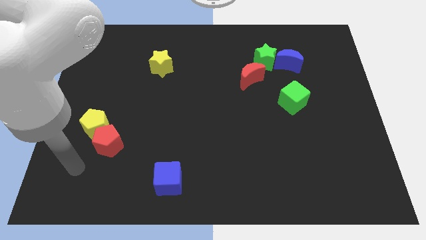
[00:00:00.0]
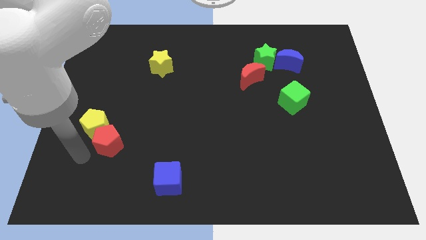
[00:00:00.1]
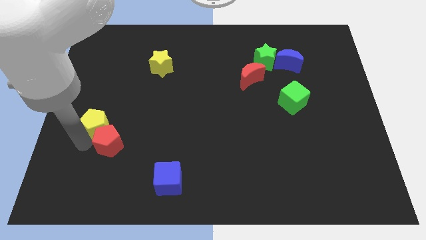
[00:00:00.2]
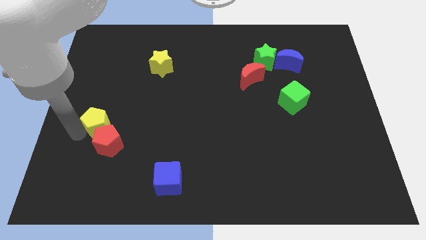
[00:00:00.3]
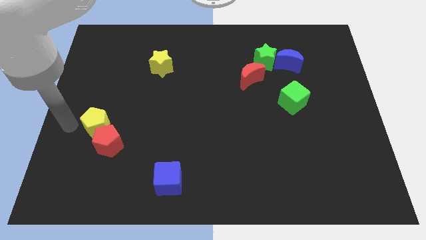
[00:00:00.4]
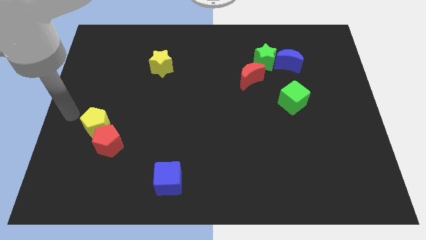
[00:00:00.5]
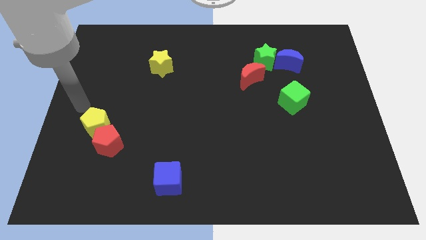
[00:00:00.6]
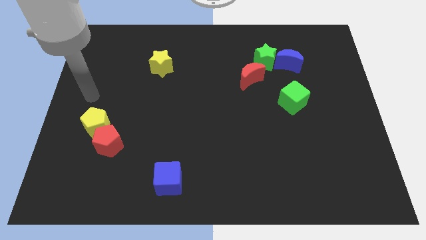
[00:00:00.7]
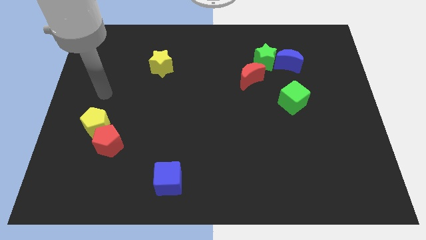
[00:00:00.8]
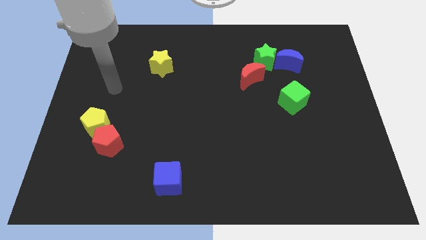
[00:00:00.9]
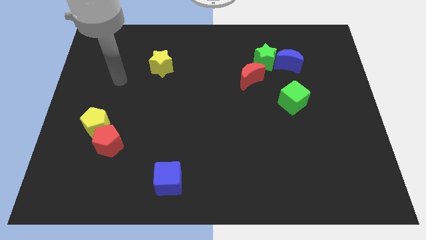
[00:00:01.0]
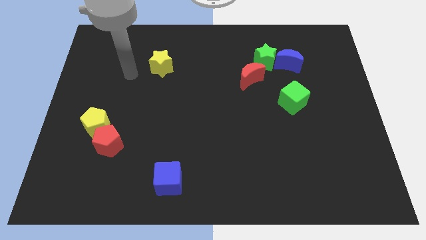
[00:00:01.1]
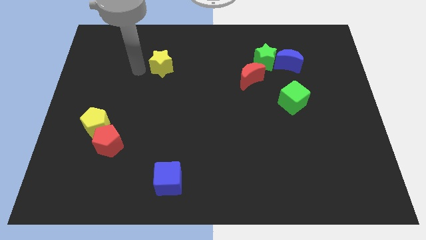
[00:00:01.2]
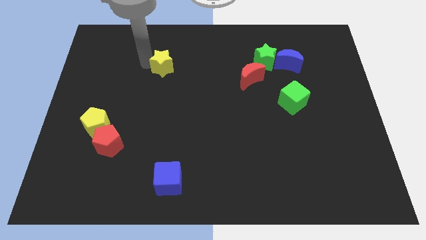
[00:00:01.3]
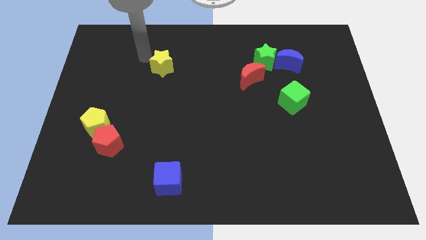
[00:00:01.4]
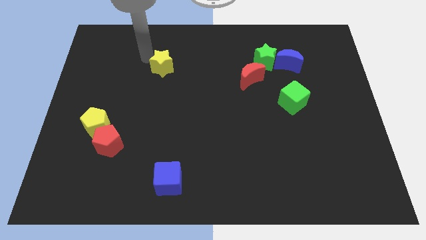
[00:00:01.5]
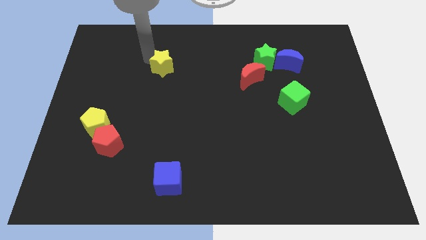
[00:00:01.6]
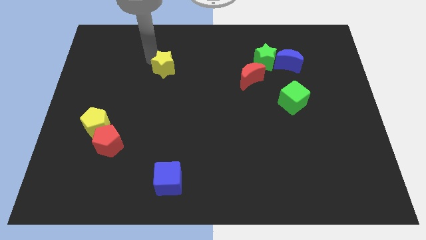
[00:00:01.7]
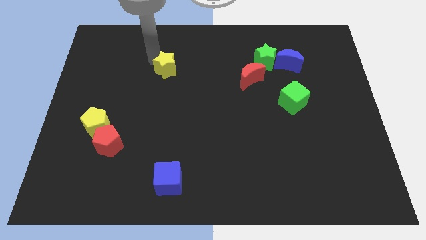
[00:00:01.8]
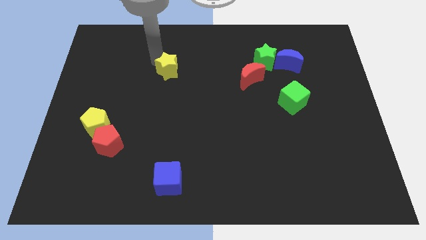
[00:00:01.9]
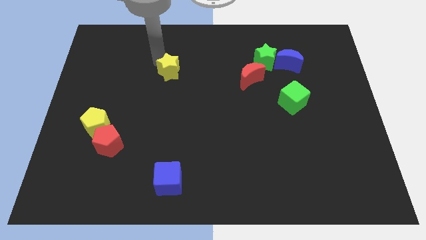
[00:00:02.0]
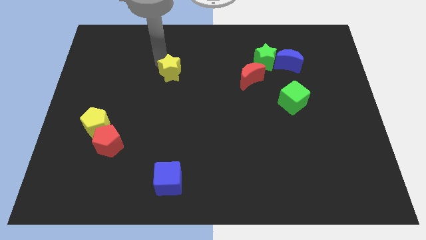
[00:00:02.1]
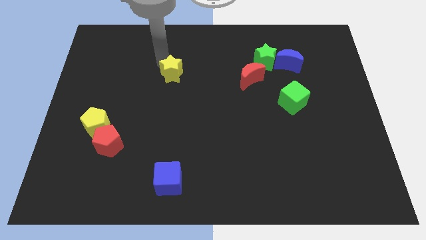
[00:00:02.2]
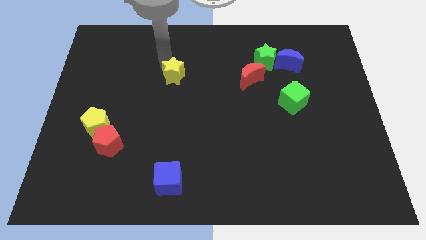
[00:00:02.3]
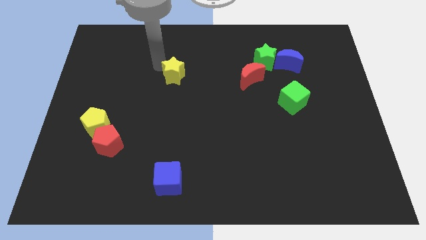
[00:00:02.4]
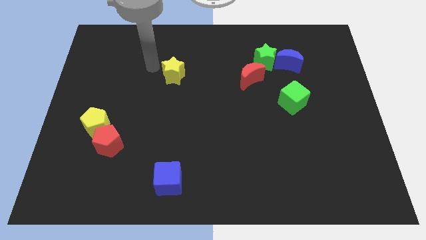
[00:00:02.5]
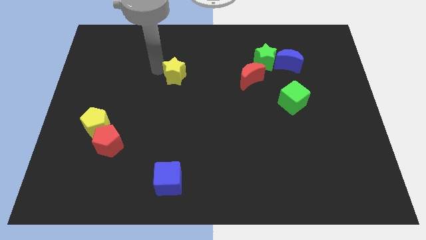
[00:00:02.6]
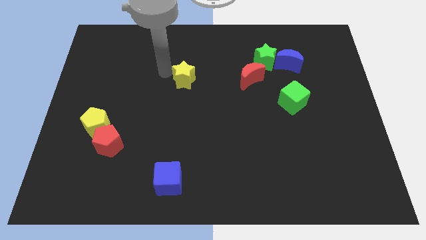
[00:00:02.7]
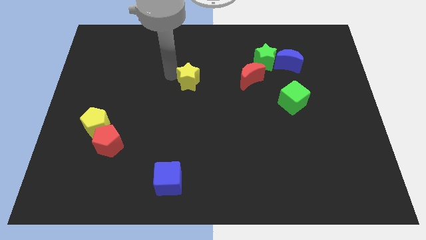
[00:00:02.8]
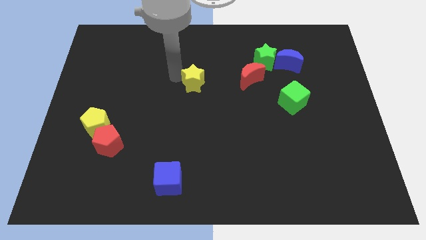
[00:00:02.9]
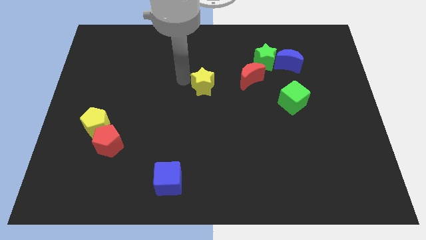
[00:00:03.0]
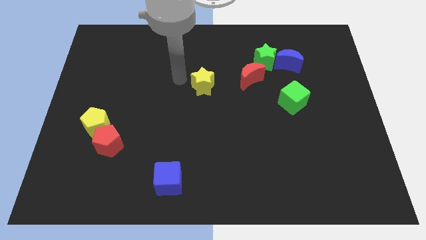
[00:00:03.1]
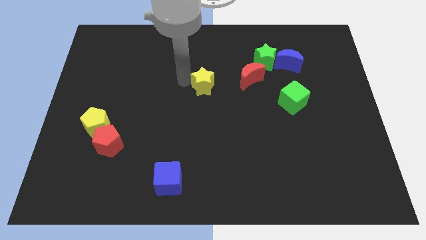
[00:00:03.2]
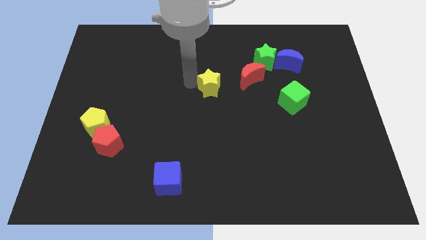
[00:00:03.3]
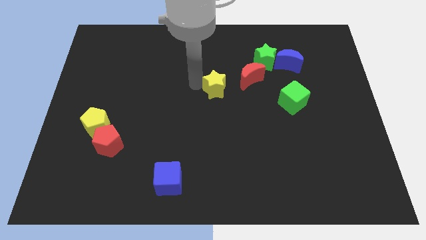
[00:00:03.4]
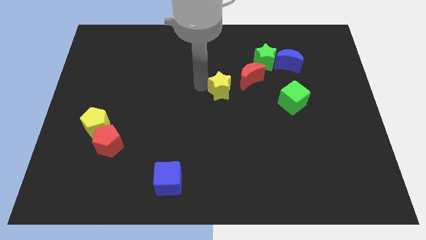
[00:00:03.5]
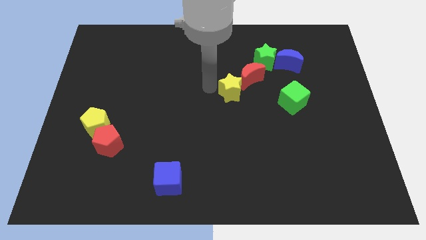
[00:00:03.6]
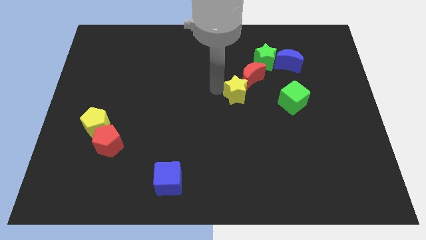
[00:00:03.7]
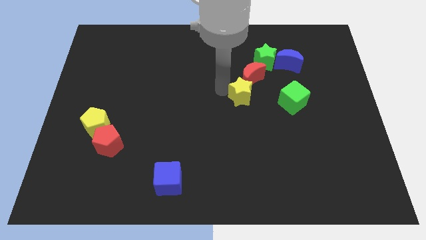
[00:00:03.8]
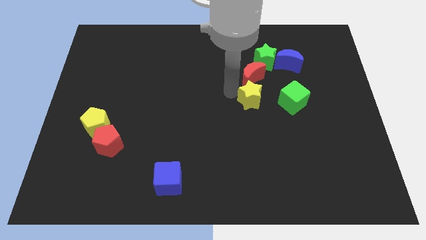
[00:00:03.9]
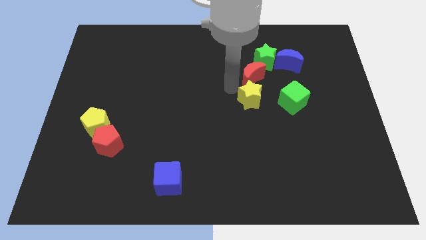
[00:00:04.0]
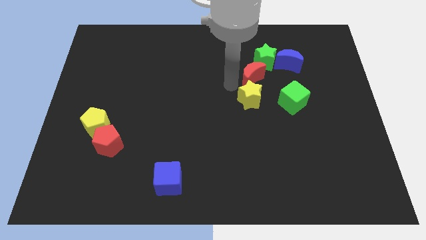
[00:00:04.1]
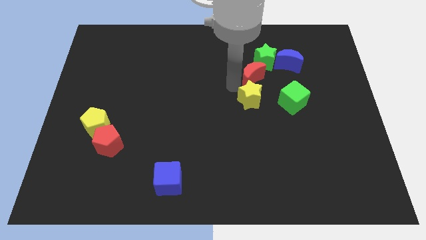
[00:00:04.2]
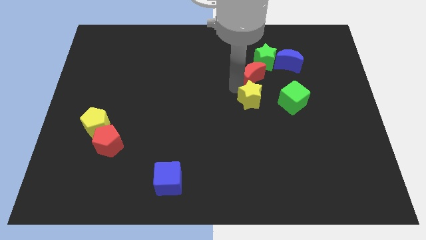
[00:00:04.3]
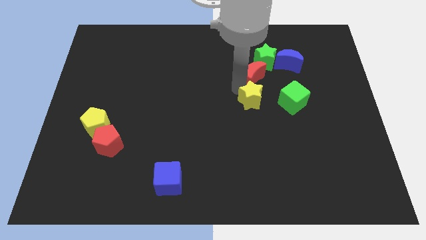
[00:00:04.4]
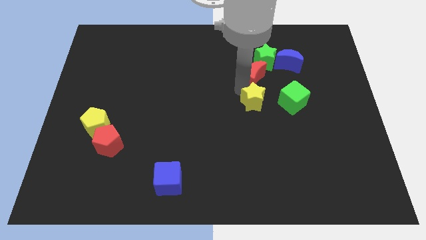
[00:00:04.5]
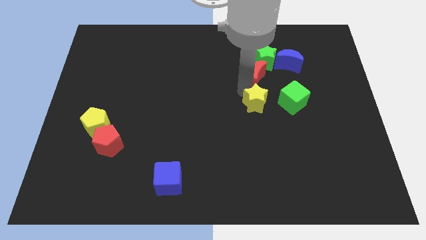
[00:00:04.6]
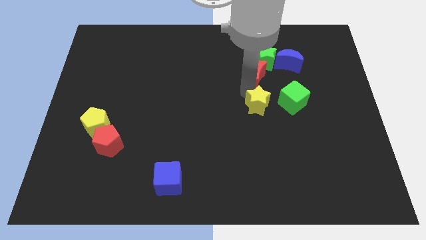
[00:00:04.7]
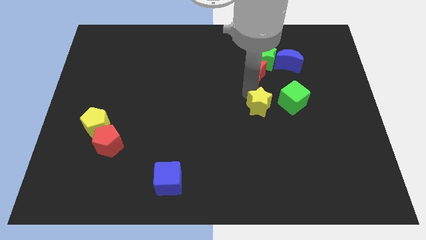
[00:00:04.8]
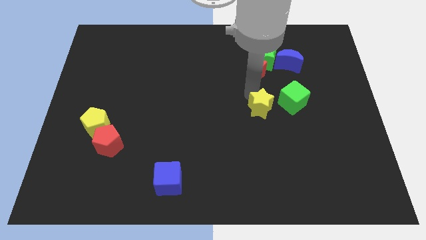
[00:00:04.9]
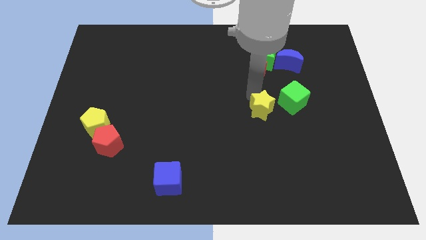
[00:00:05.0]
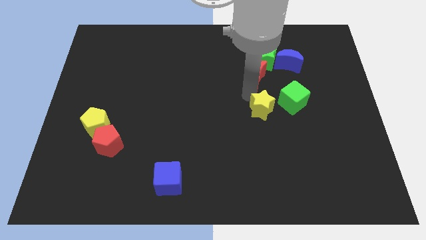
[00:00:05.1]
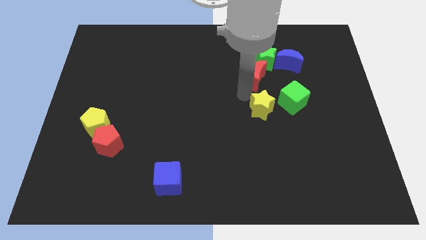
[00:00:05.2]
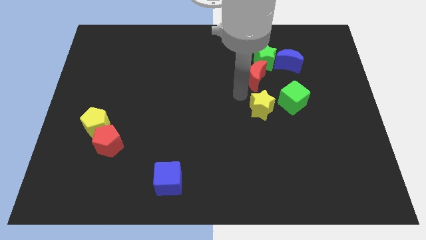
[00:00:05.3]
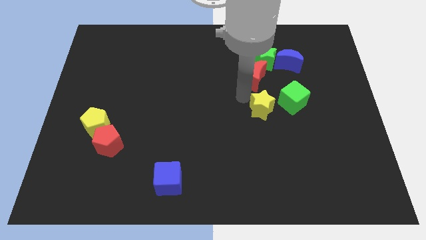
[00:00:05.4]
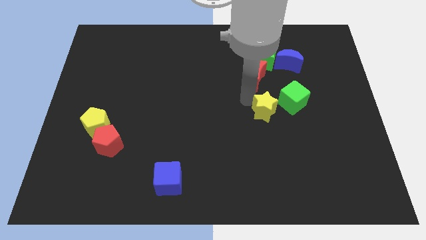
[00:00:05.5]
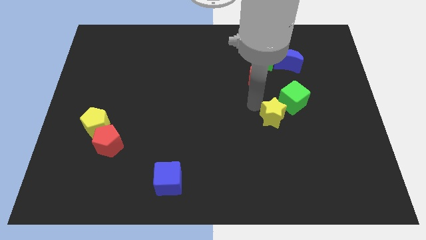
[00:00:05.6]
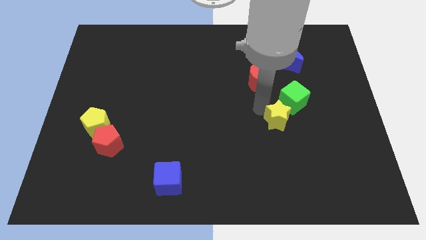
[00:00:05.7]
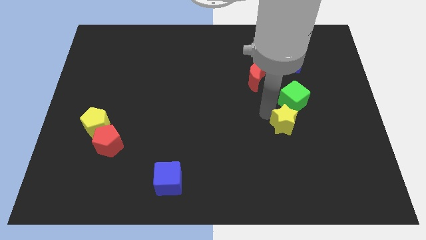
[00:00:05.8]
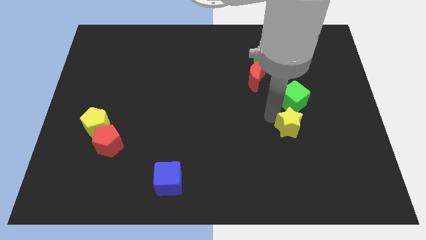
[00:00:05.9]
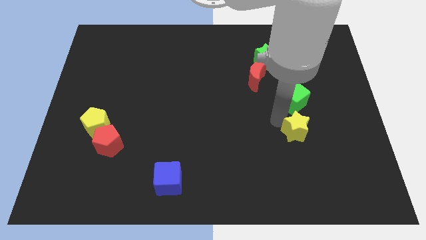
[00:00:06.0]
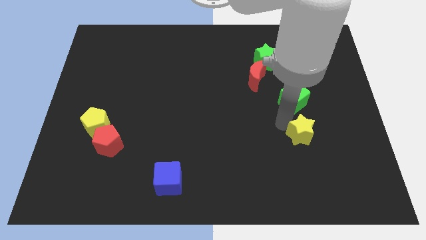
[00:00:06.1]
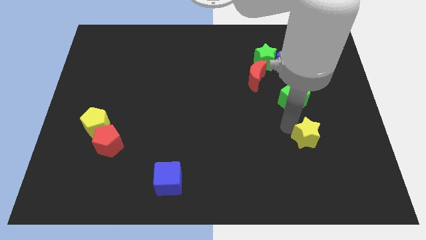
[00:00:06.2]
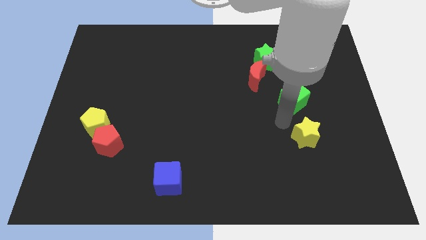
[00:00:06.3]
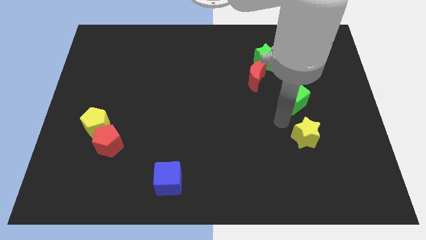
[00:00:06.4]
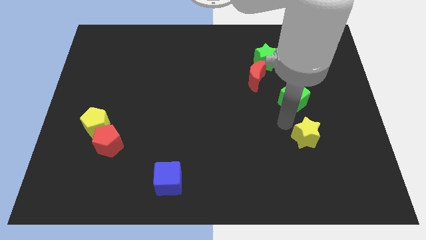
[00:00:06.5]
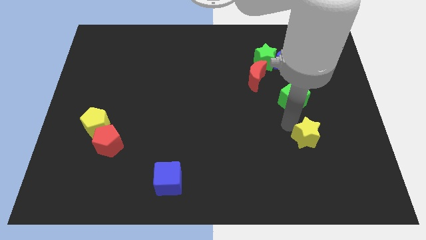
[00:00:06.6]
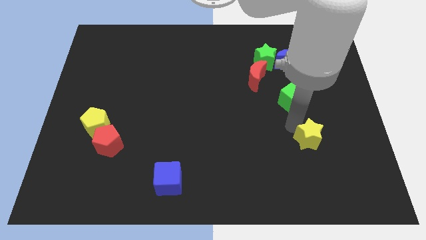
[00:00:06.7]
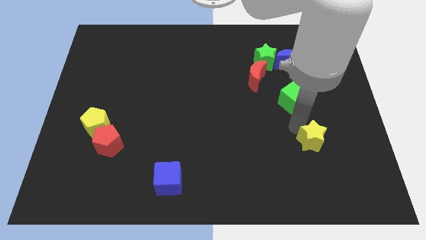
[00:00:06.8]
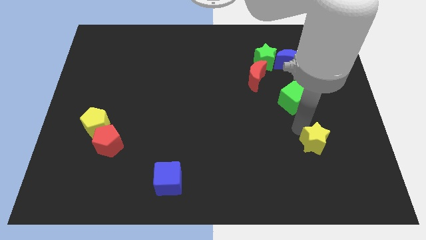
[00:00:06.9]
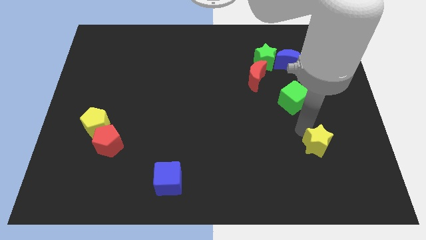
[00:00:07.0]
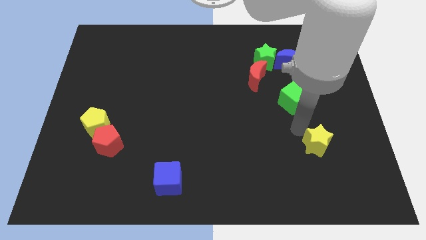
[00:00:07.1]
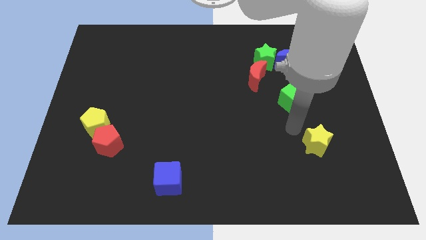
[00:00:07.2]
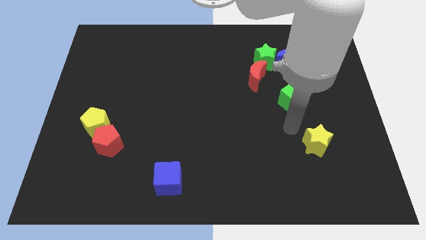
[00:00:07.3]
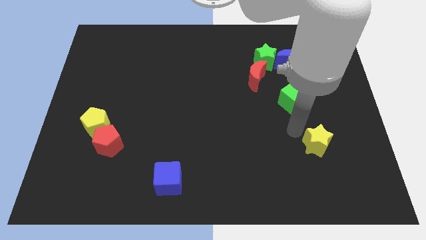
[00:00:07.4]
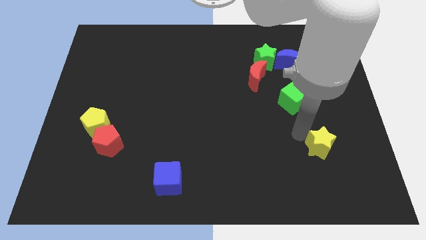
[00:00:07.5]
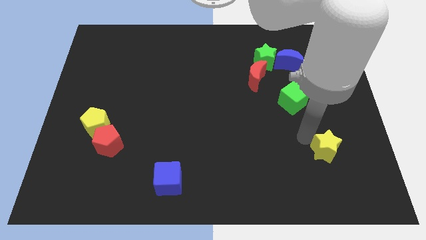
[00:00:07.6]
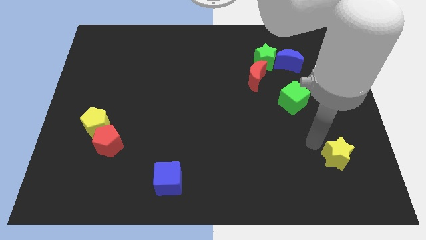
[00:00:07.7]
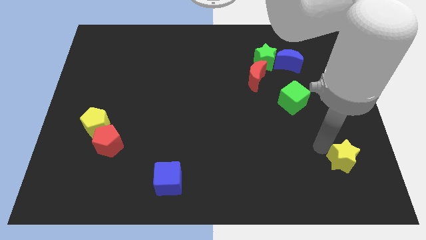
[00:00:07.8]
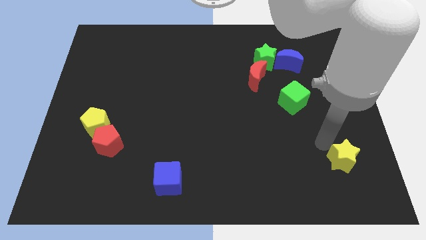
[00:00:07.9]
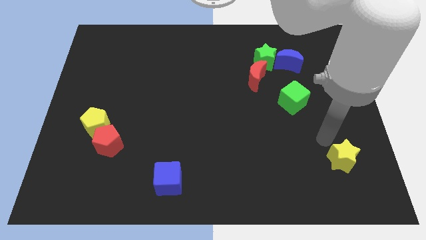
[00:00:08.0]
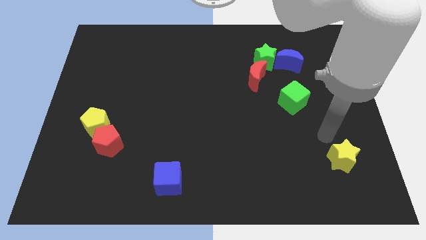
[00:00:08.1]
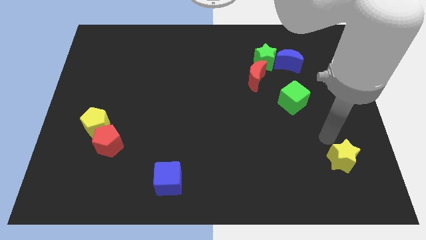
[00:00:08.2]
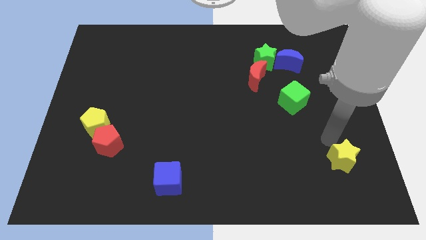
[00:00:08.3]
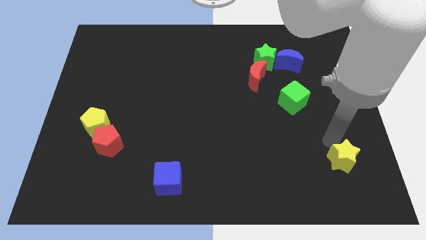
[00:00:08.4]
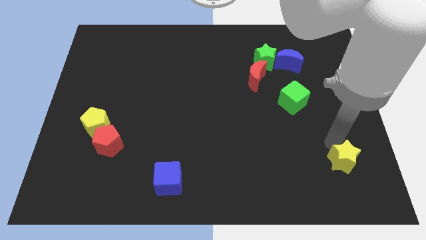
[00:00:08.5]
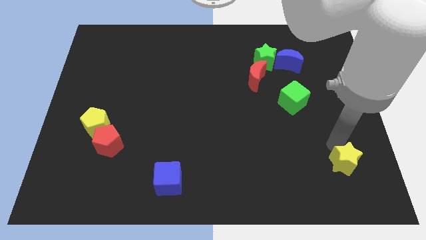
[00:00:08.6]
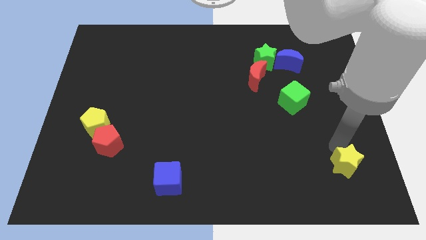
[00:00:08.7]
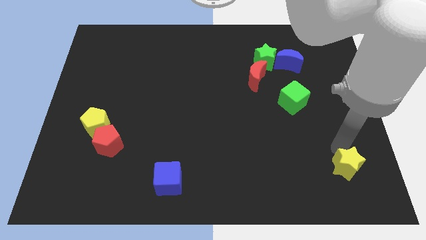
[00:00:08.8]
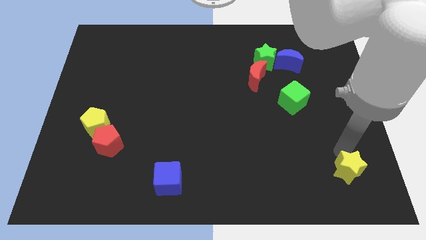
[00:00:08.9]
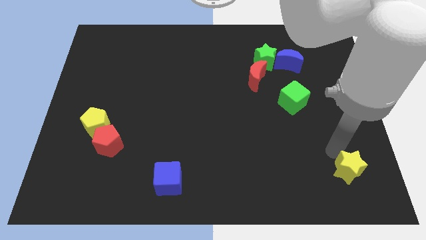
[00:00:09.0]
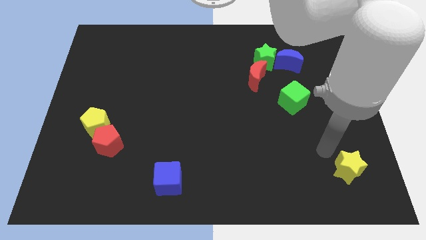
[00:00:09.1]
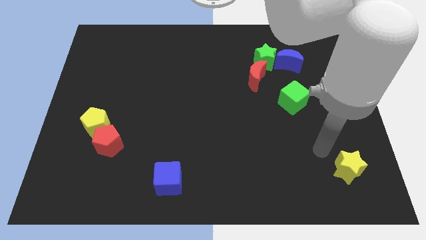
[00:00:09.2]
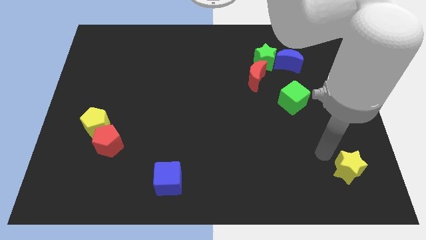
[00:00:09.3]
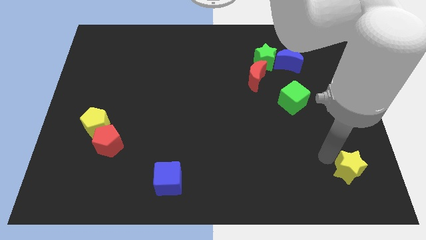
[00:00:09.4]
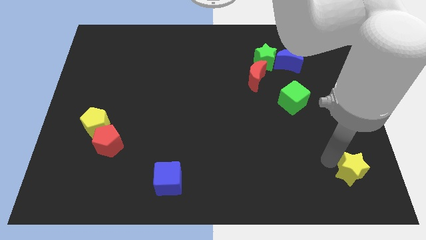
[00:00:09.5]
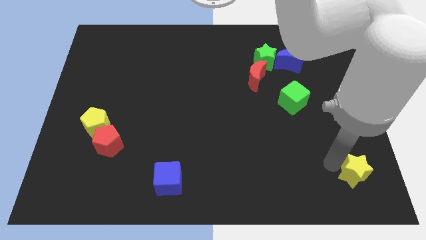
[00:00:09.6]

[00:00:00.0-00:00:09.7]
put the yellow star to the bottom right
